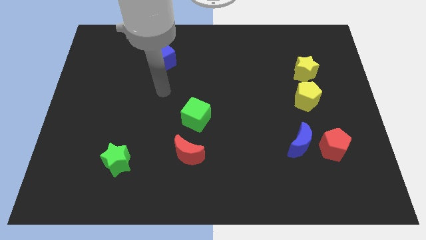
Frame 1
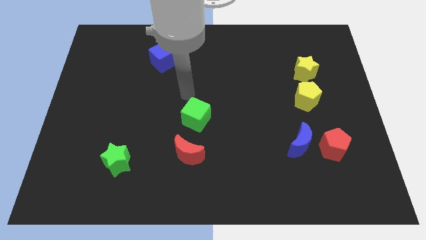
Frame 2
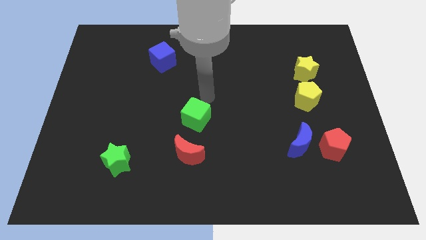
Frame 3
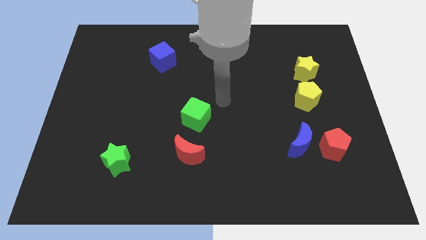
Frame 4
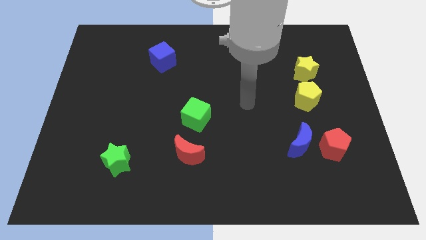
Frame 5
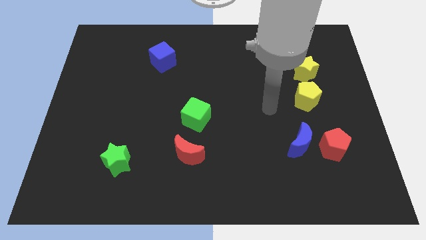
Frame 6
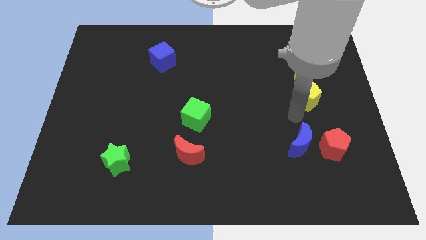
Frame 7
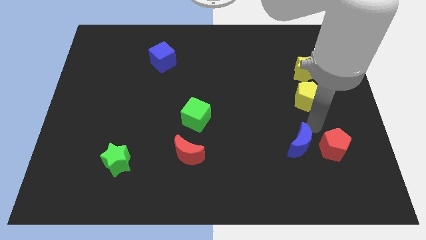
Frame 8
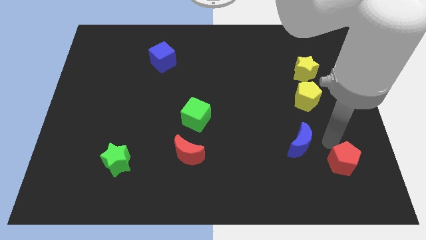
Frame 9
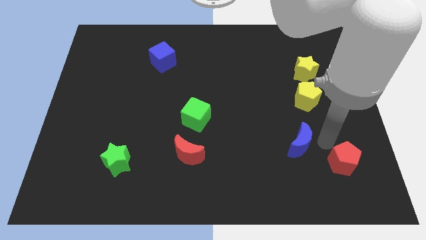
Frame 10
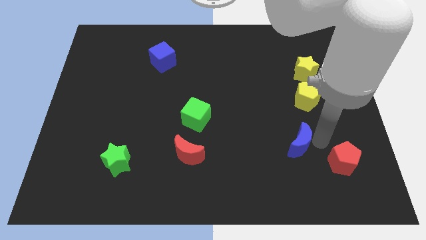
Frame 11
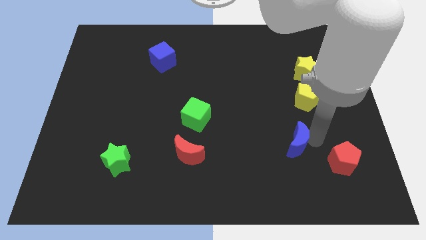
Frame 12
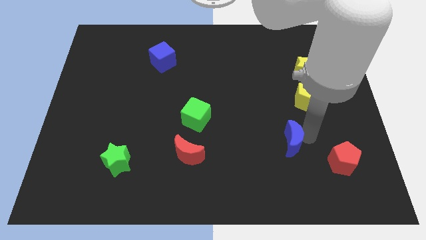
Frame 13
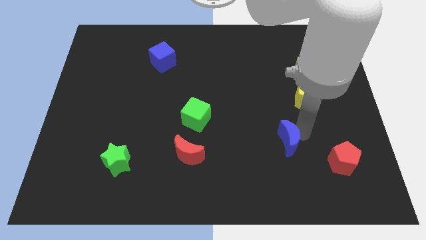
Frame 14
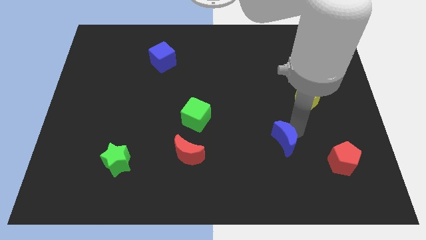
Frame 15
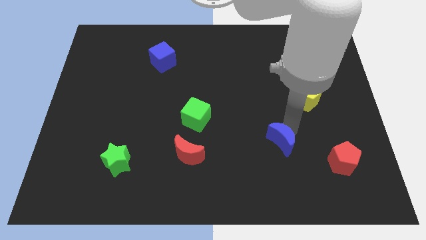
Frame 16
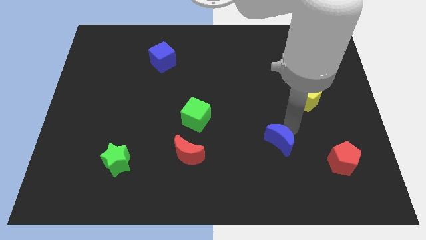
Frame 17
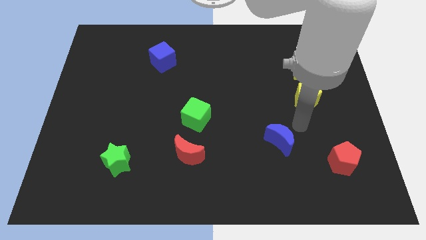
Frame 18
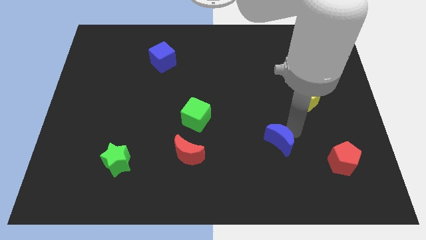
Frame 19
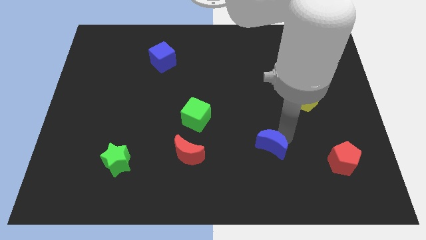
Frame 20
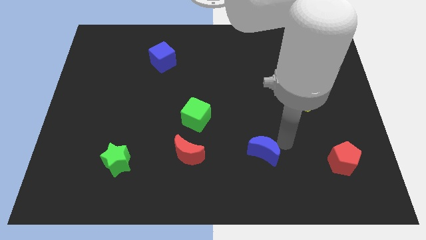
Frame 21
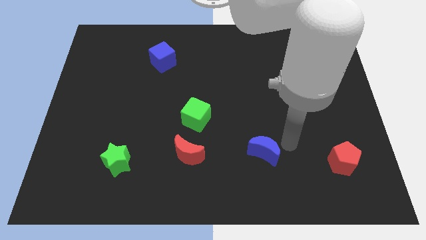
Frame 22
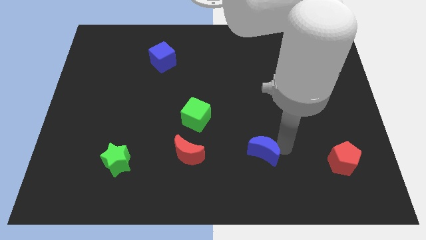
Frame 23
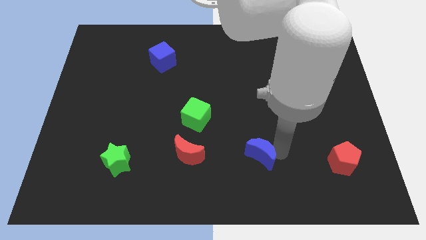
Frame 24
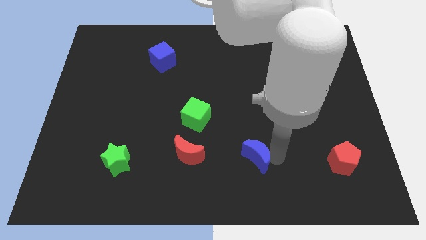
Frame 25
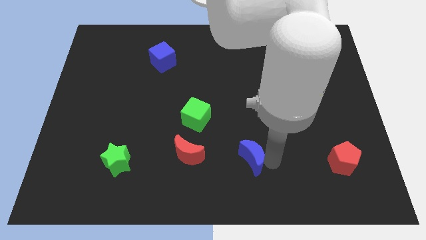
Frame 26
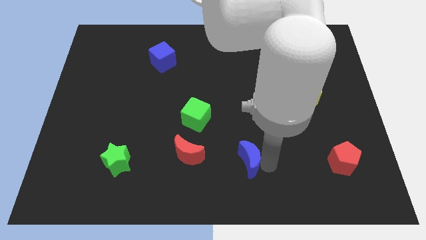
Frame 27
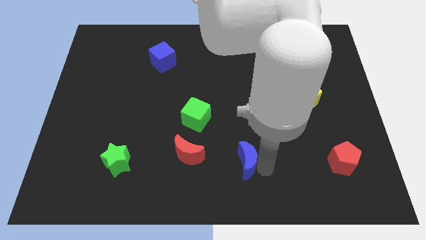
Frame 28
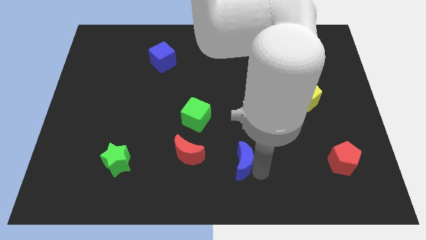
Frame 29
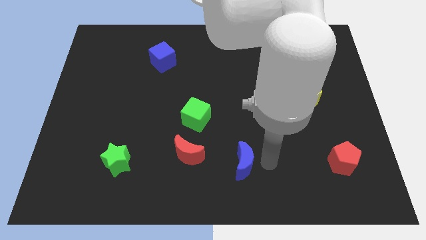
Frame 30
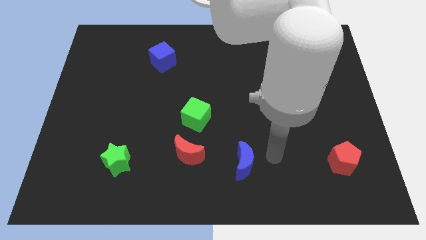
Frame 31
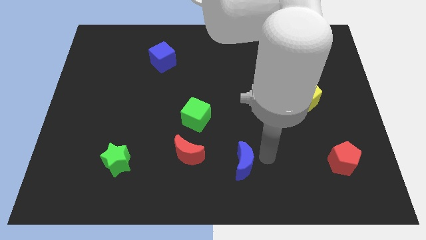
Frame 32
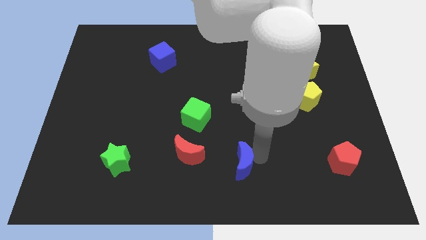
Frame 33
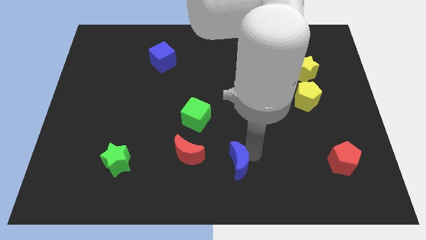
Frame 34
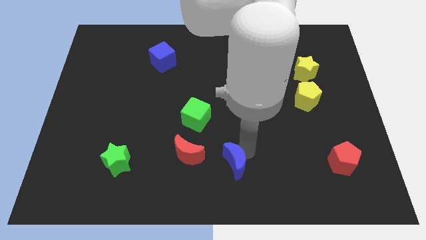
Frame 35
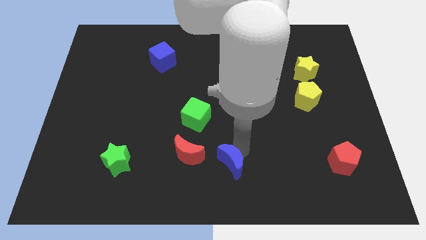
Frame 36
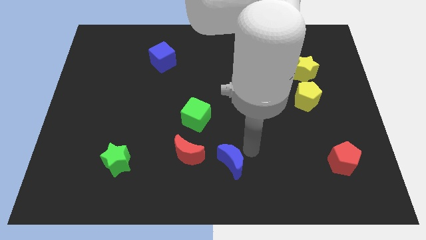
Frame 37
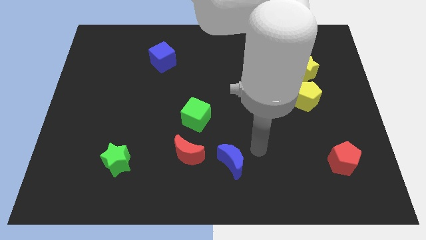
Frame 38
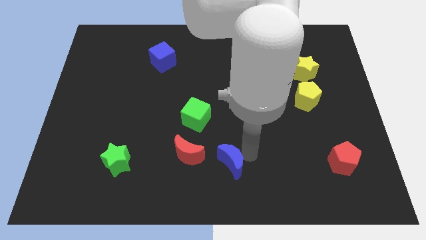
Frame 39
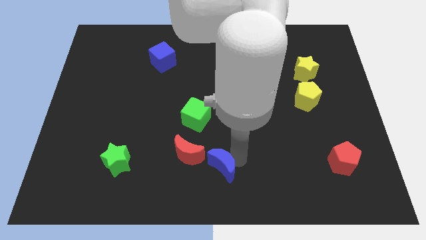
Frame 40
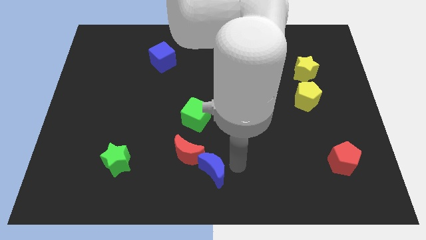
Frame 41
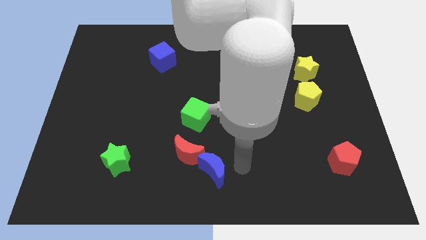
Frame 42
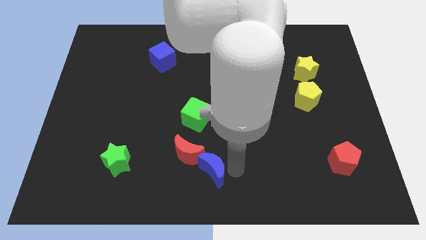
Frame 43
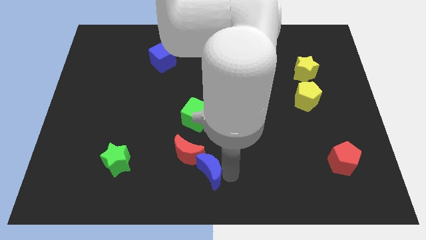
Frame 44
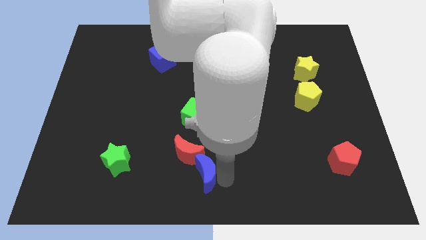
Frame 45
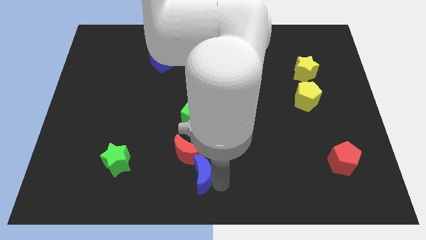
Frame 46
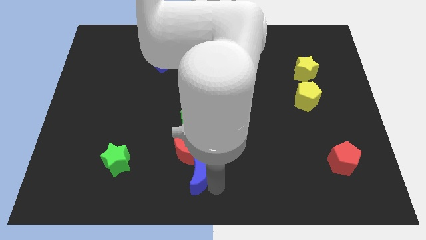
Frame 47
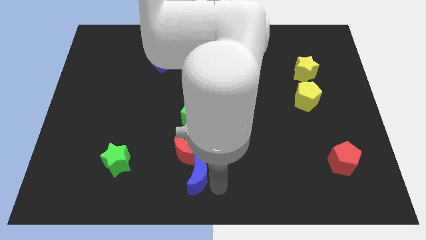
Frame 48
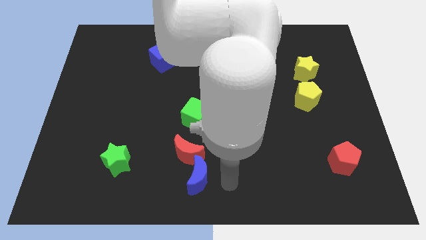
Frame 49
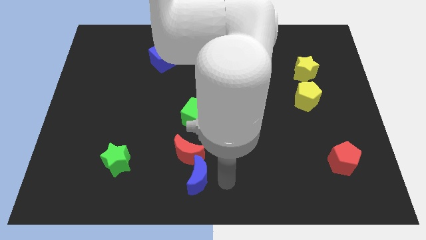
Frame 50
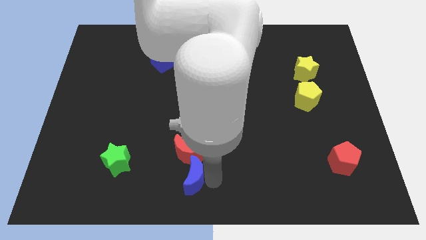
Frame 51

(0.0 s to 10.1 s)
move the blue moon to the left

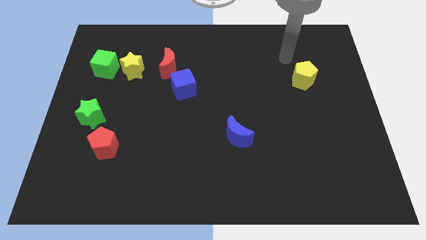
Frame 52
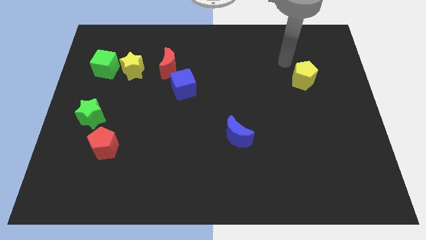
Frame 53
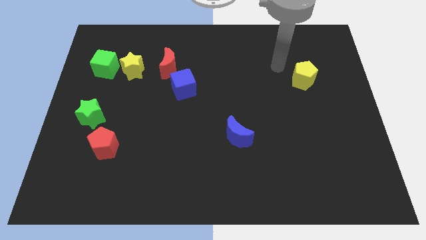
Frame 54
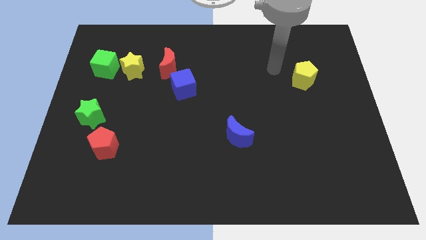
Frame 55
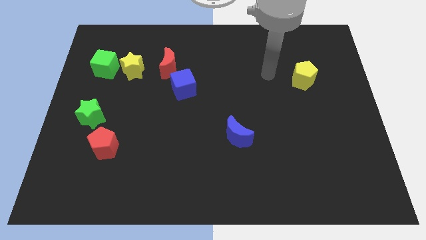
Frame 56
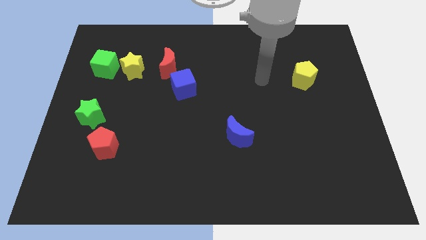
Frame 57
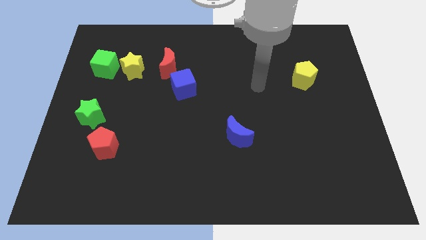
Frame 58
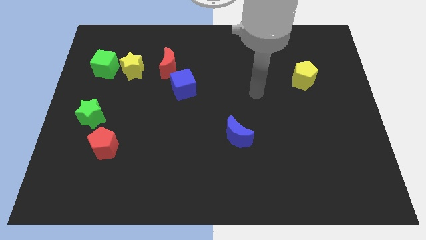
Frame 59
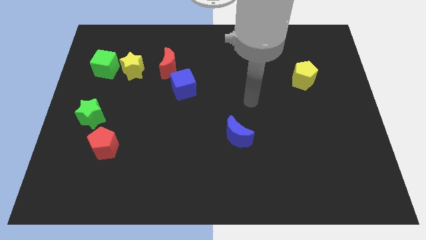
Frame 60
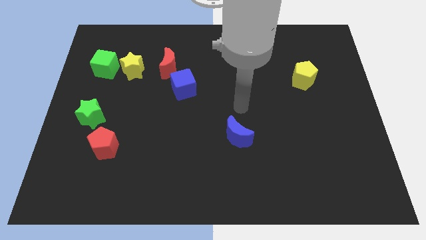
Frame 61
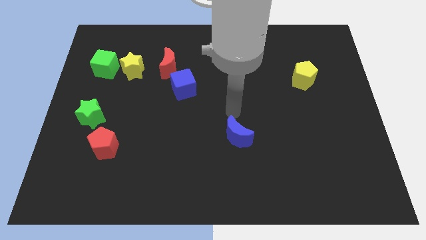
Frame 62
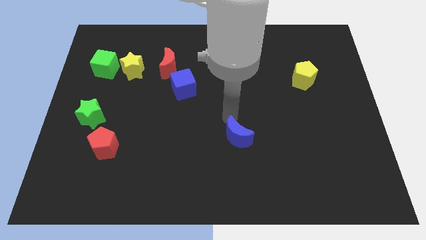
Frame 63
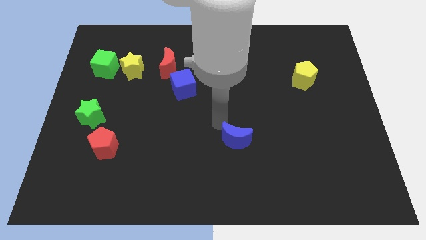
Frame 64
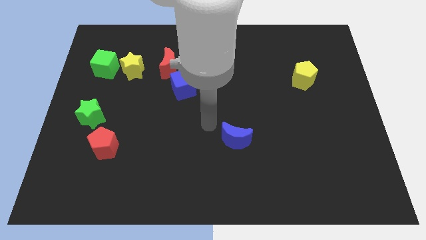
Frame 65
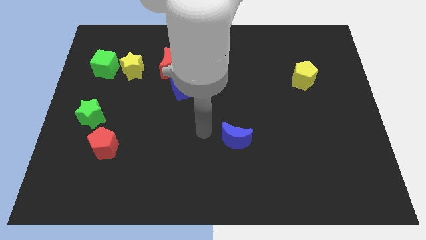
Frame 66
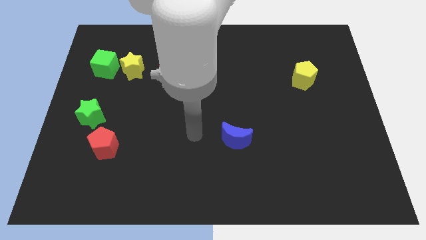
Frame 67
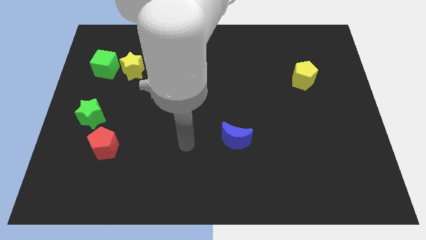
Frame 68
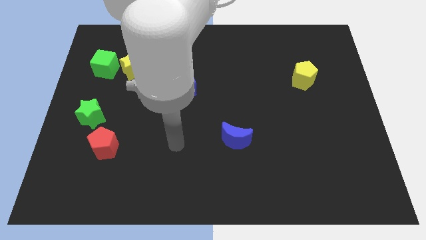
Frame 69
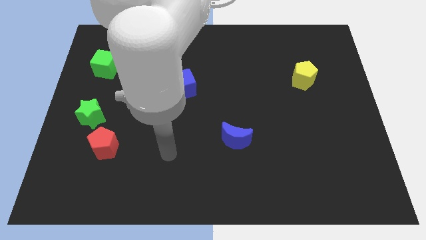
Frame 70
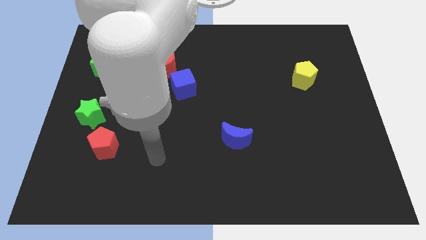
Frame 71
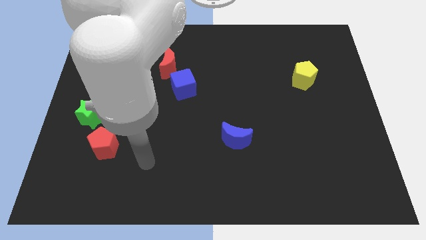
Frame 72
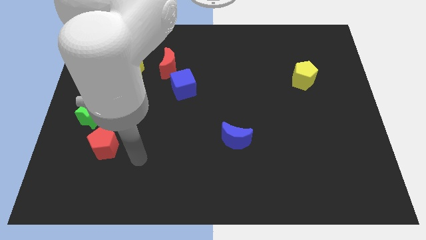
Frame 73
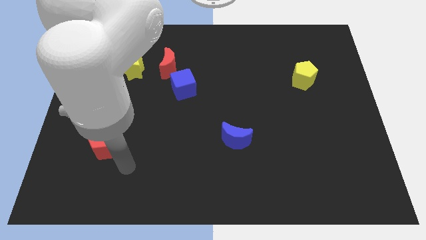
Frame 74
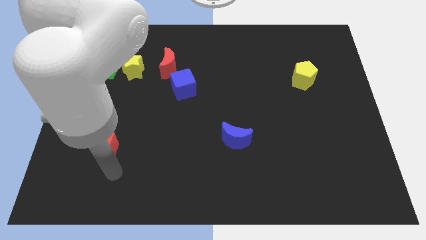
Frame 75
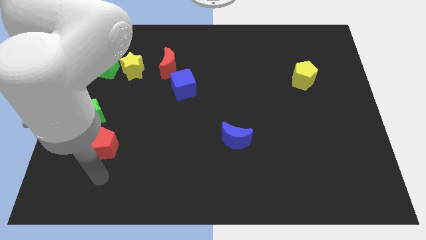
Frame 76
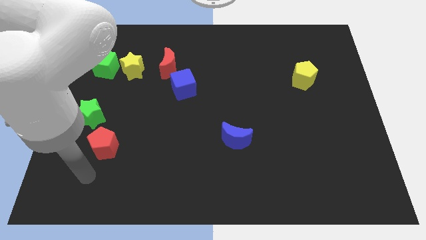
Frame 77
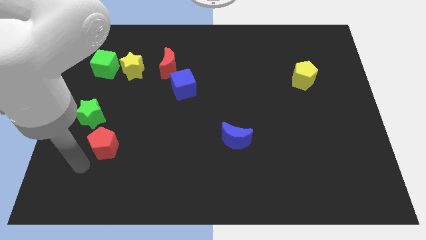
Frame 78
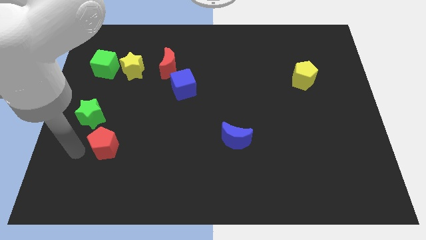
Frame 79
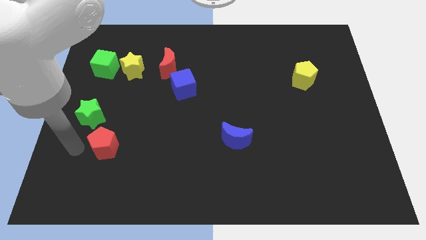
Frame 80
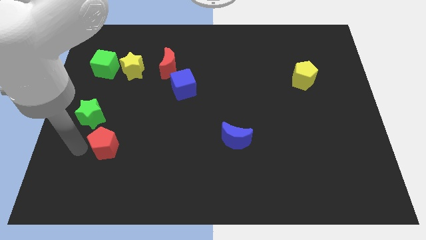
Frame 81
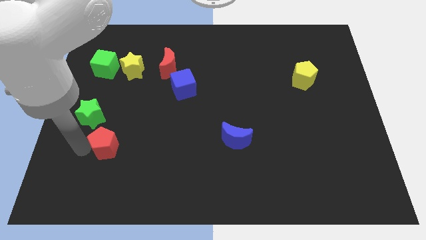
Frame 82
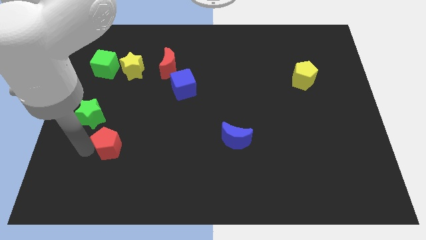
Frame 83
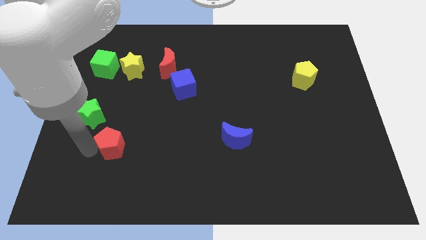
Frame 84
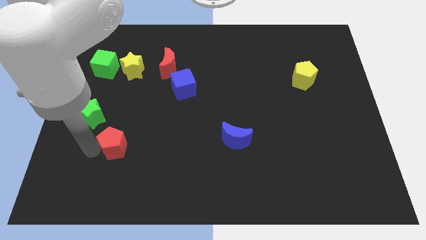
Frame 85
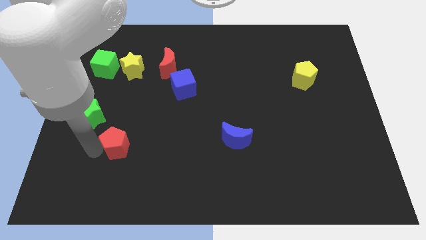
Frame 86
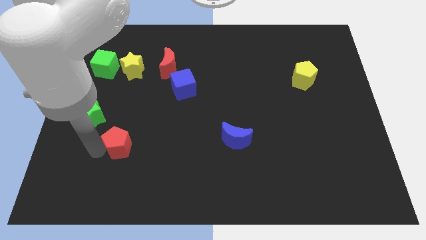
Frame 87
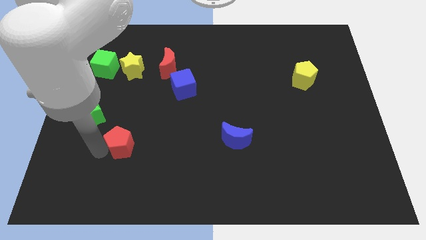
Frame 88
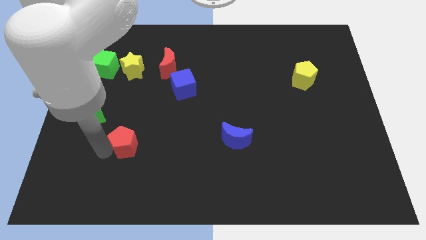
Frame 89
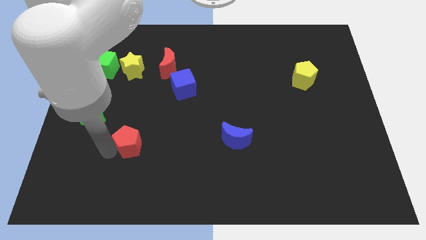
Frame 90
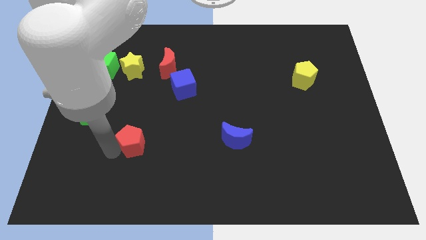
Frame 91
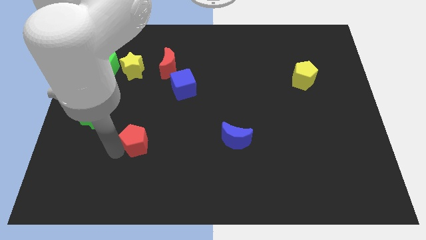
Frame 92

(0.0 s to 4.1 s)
slightly slide the red pentagon to the right
